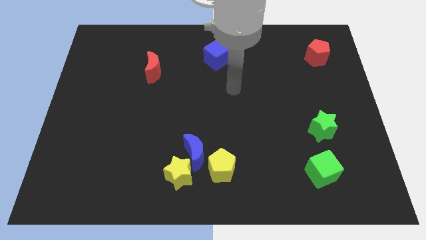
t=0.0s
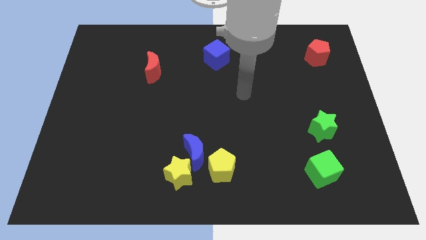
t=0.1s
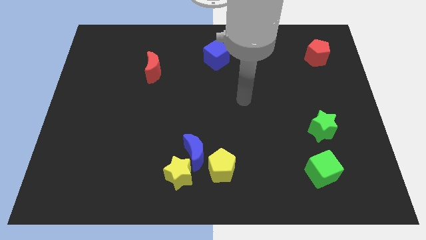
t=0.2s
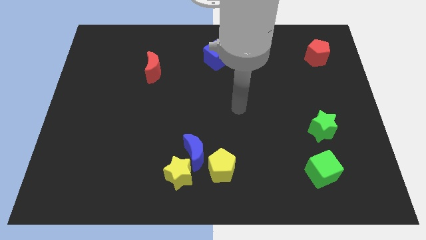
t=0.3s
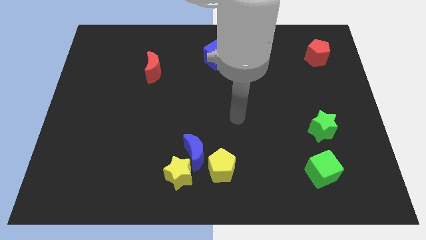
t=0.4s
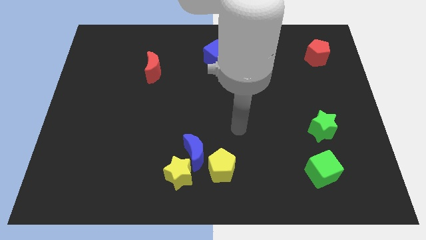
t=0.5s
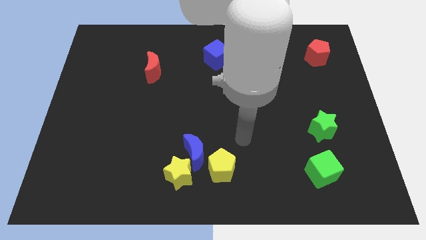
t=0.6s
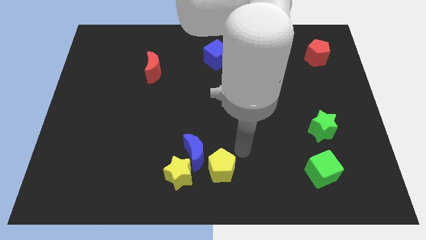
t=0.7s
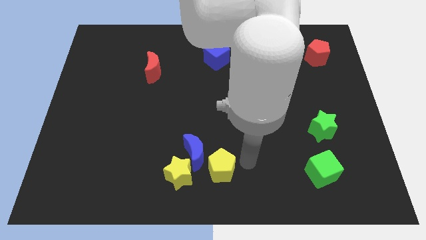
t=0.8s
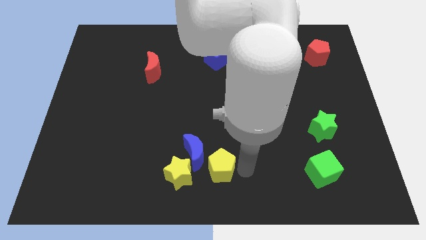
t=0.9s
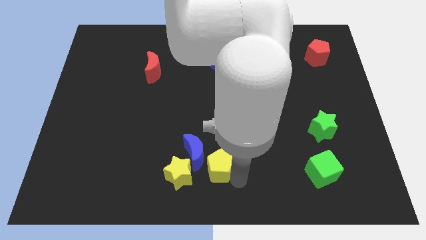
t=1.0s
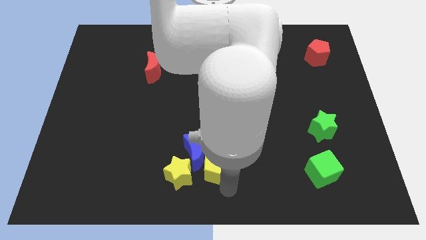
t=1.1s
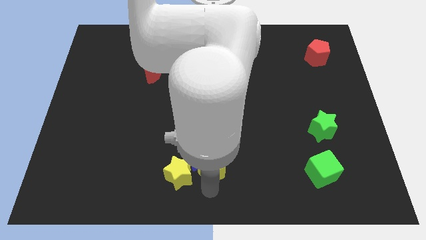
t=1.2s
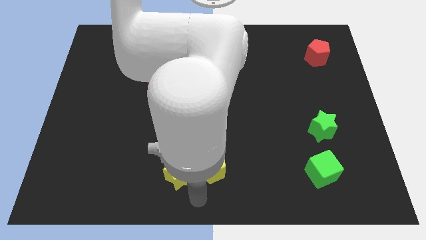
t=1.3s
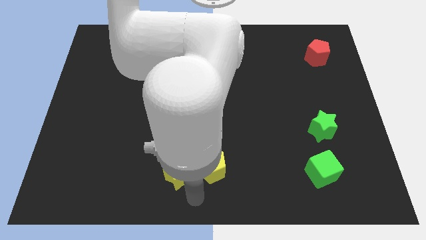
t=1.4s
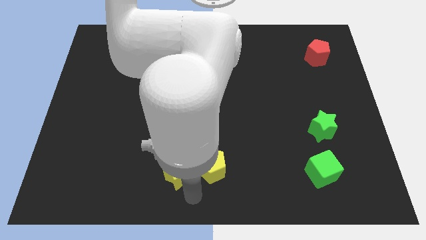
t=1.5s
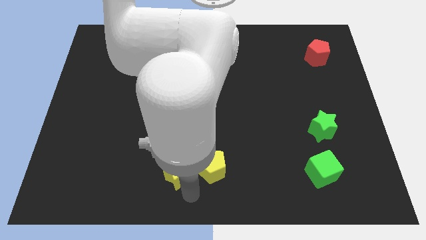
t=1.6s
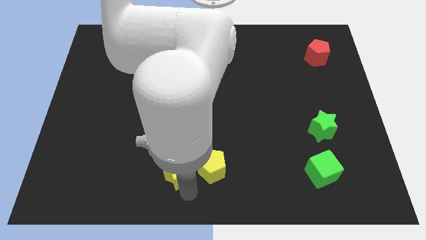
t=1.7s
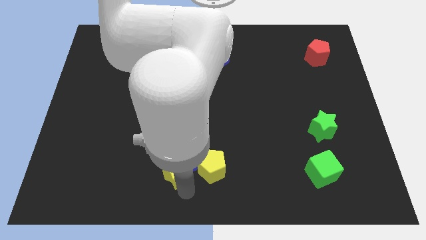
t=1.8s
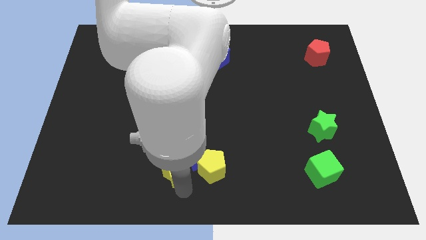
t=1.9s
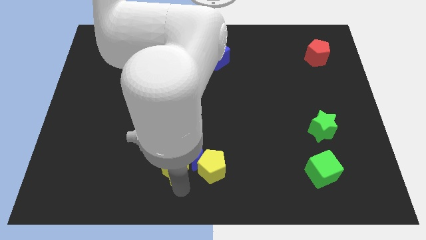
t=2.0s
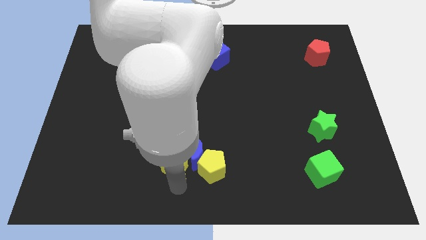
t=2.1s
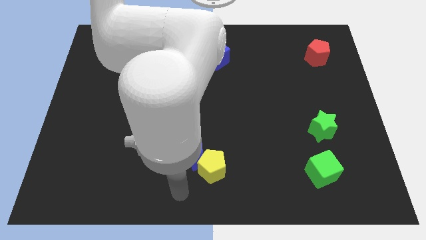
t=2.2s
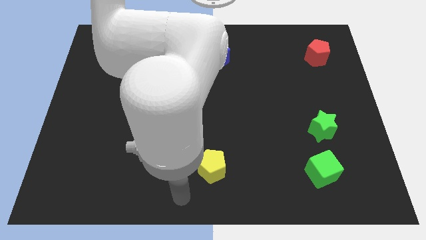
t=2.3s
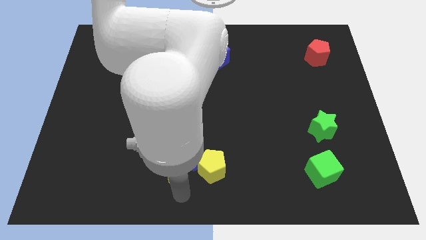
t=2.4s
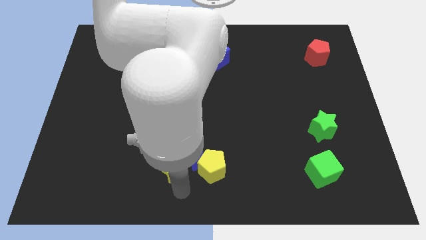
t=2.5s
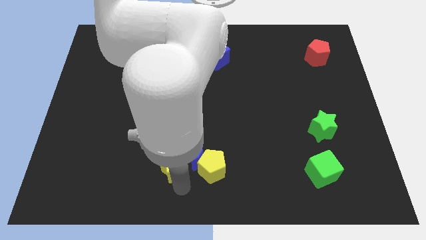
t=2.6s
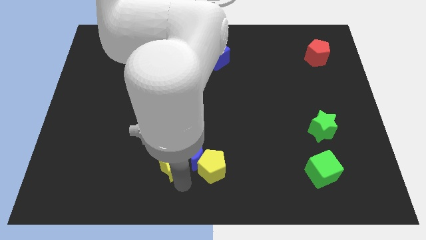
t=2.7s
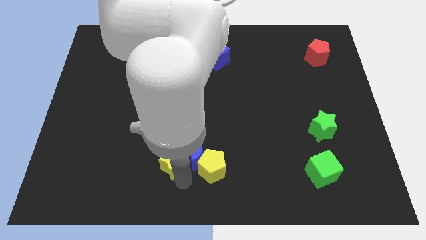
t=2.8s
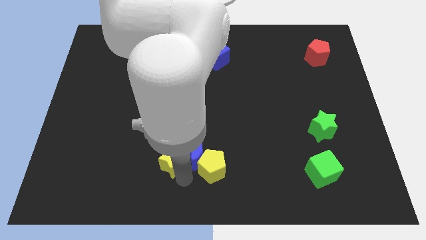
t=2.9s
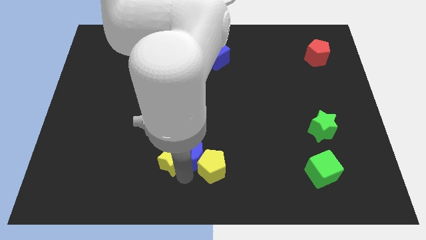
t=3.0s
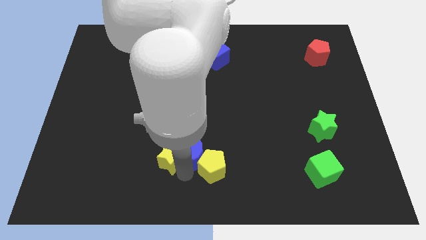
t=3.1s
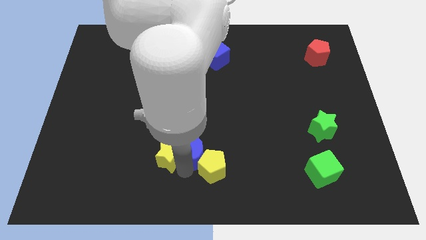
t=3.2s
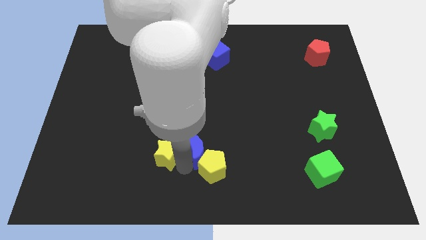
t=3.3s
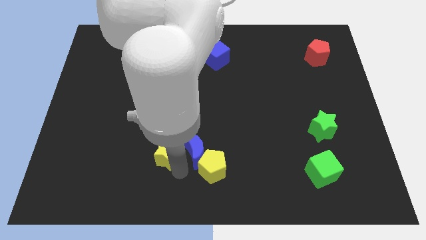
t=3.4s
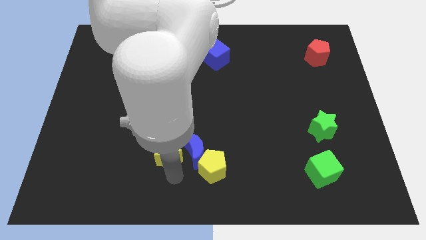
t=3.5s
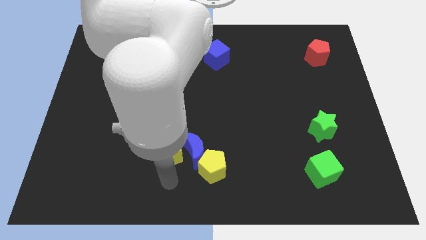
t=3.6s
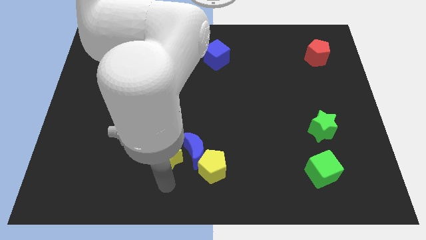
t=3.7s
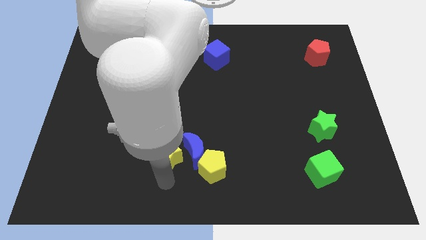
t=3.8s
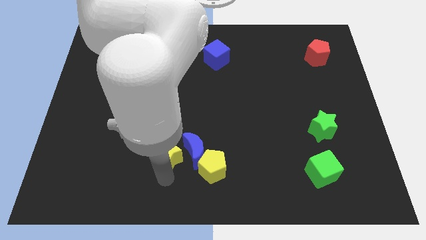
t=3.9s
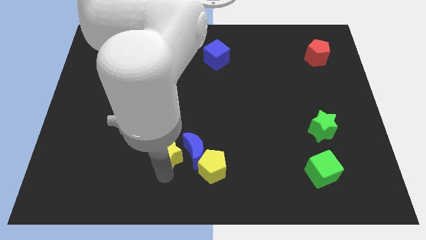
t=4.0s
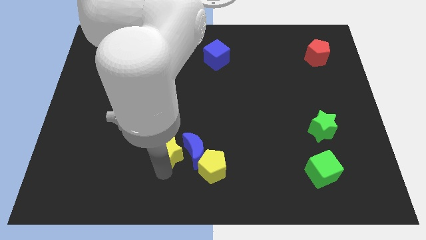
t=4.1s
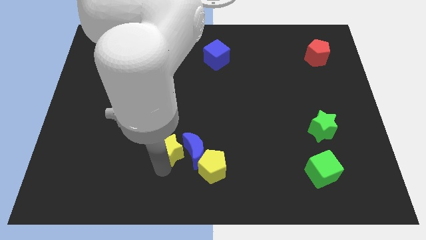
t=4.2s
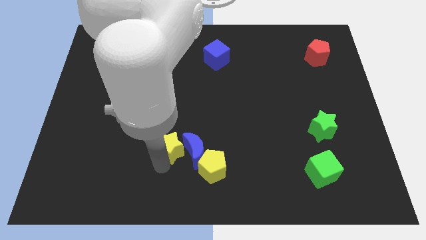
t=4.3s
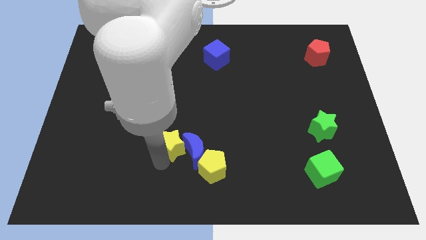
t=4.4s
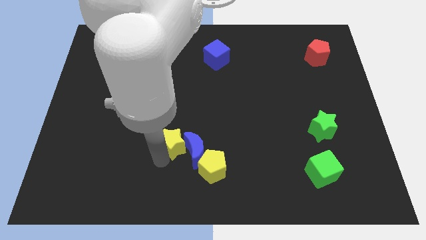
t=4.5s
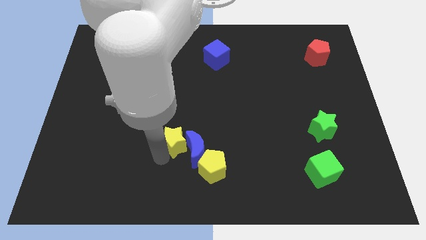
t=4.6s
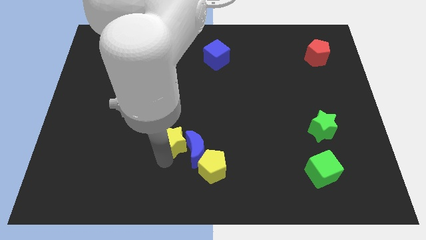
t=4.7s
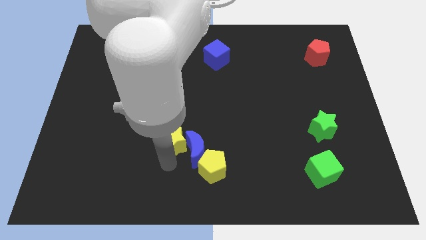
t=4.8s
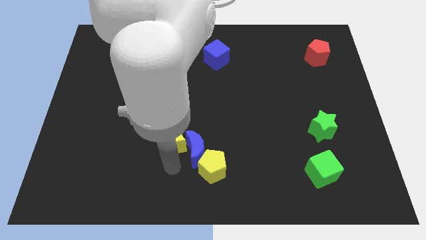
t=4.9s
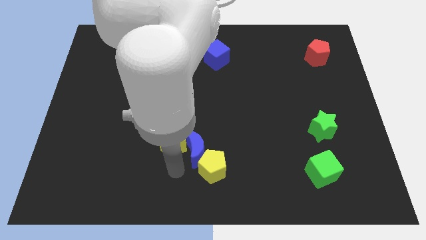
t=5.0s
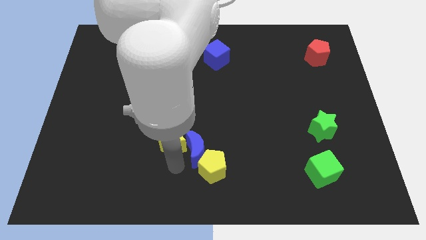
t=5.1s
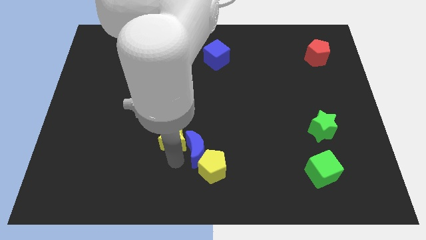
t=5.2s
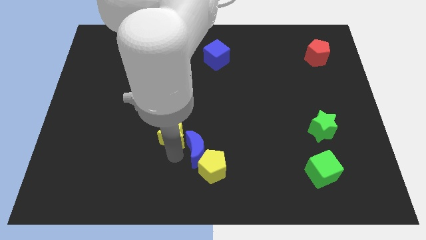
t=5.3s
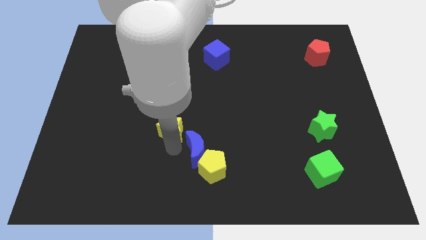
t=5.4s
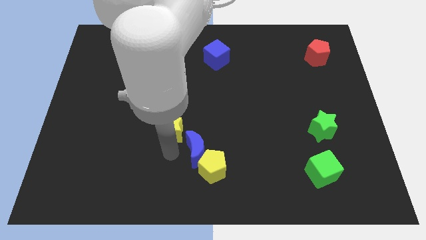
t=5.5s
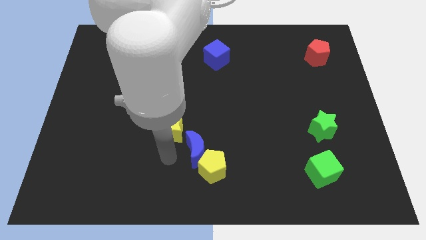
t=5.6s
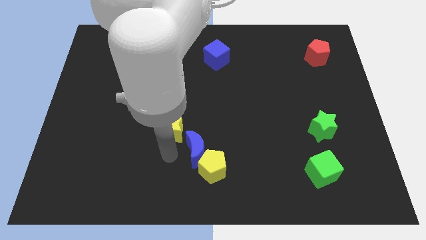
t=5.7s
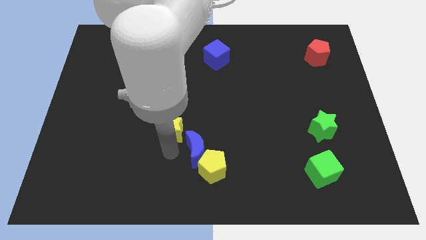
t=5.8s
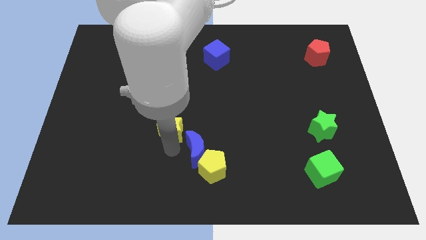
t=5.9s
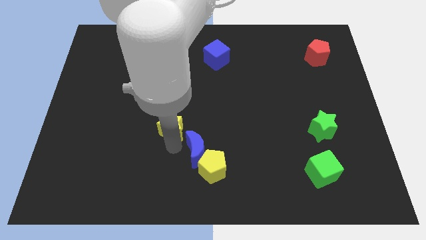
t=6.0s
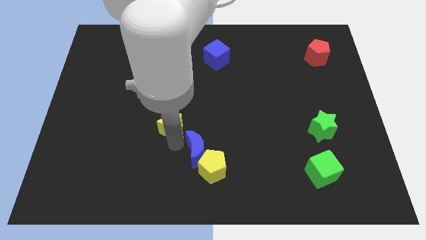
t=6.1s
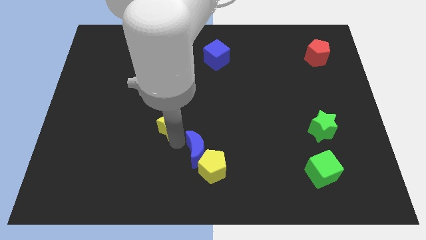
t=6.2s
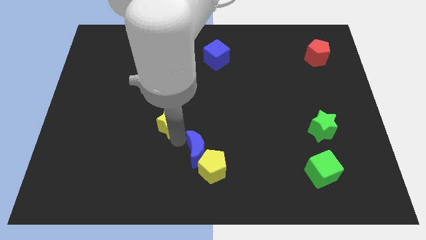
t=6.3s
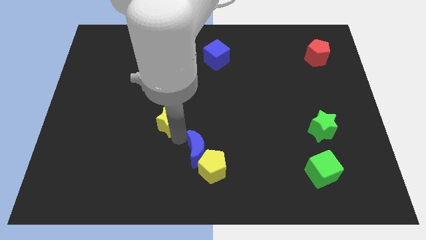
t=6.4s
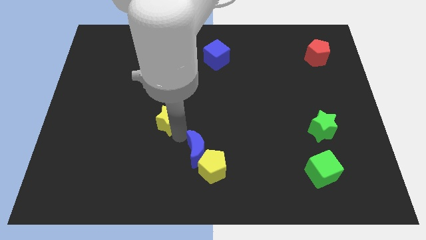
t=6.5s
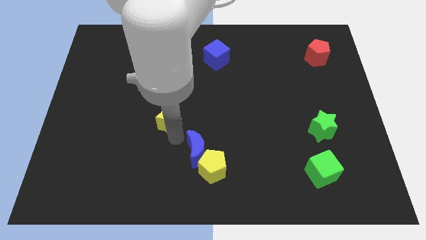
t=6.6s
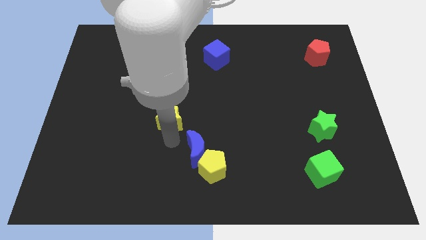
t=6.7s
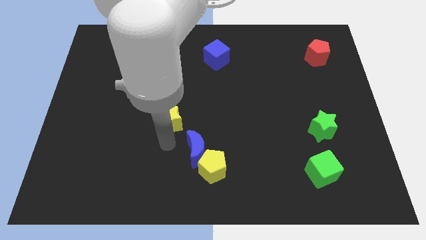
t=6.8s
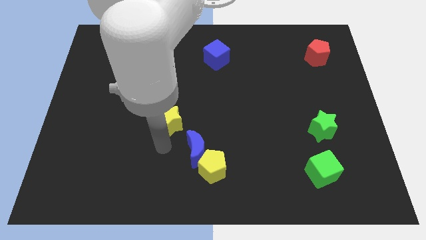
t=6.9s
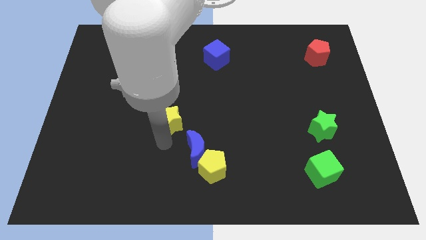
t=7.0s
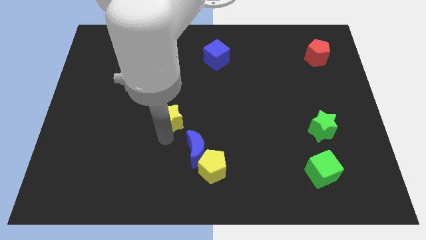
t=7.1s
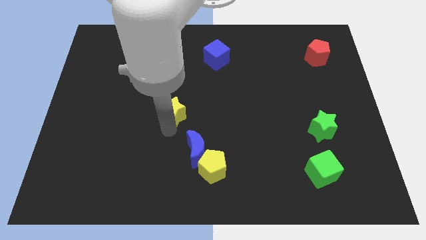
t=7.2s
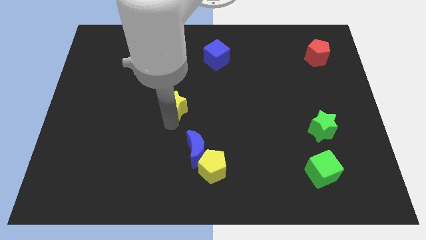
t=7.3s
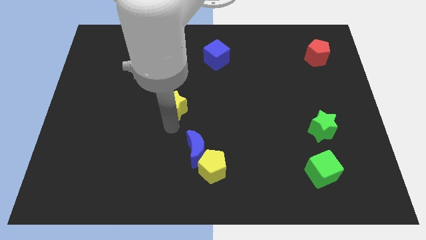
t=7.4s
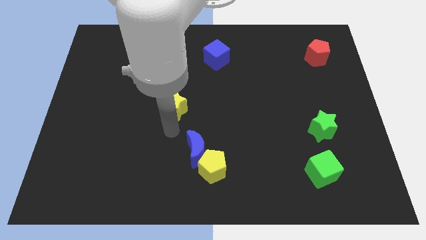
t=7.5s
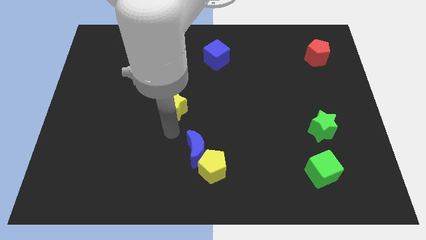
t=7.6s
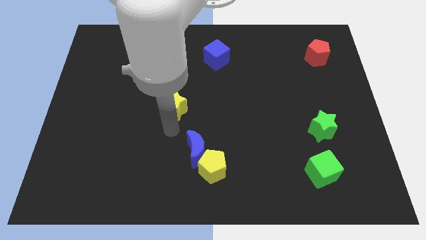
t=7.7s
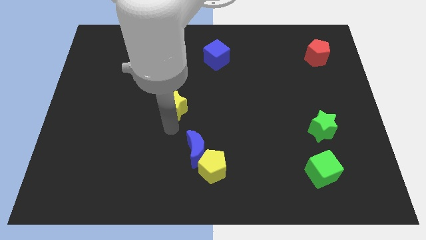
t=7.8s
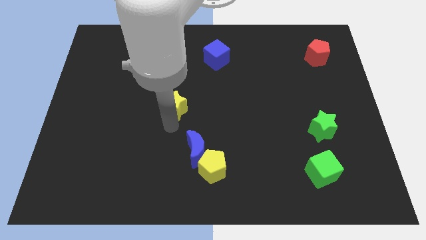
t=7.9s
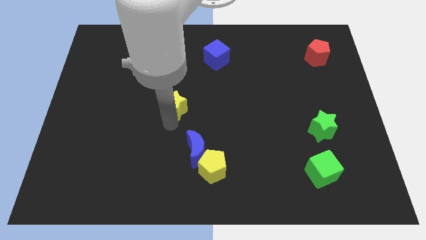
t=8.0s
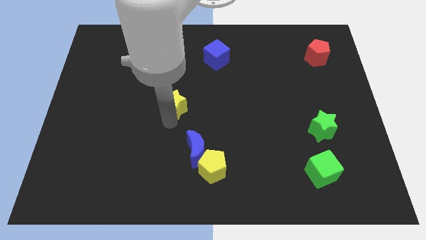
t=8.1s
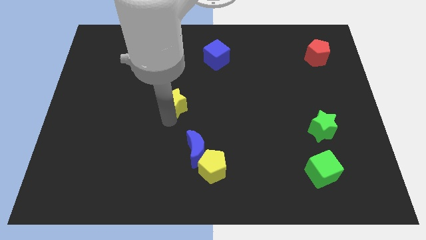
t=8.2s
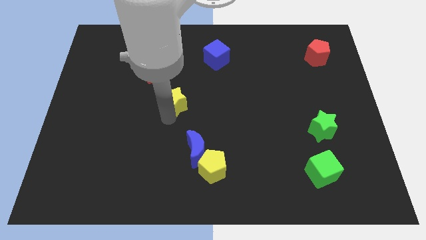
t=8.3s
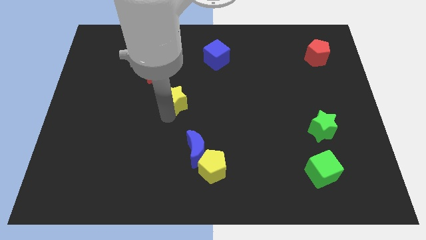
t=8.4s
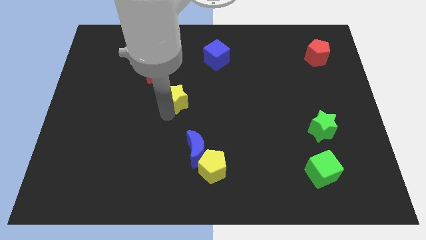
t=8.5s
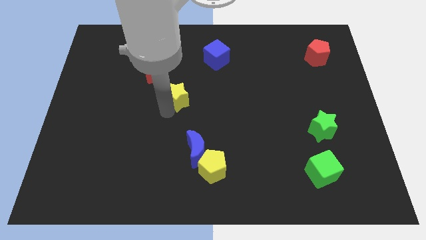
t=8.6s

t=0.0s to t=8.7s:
push the yellow star up
